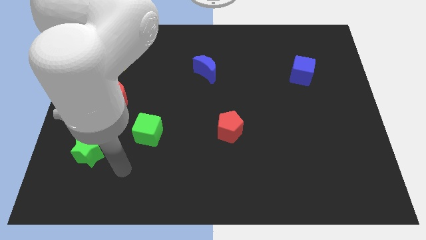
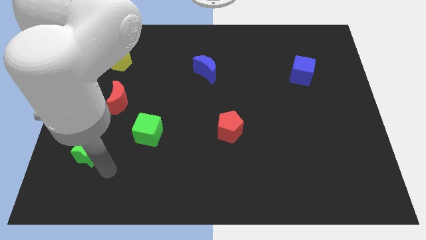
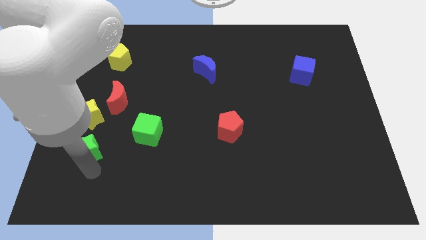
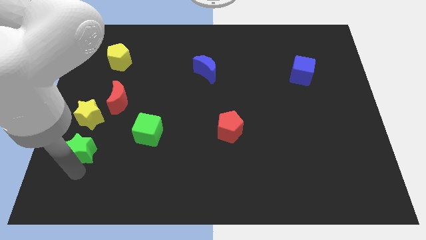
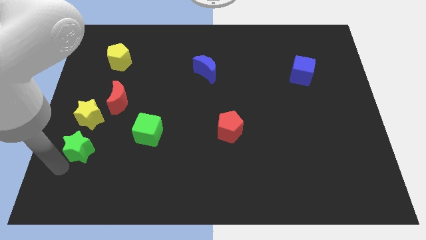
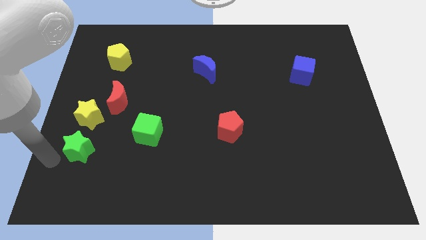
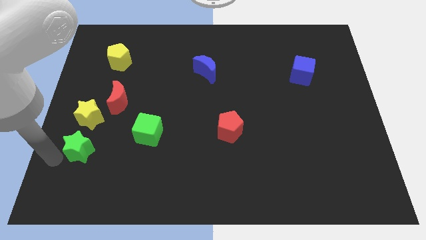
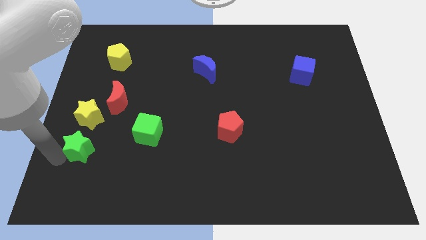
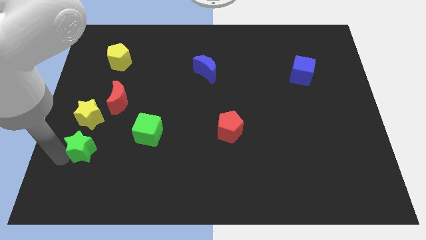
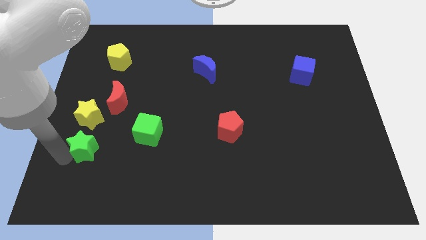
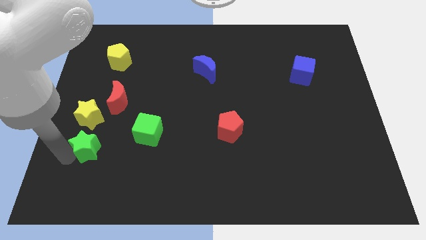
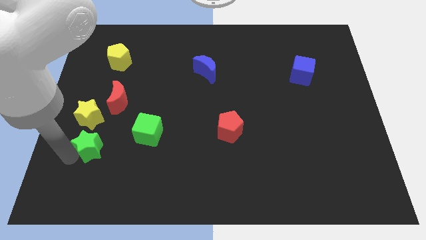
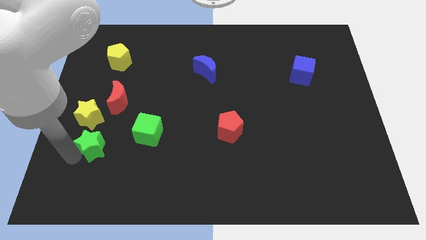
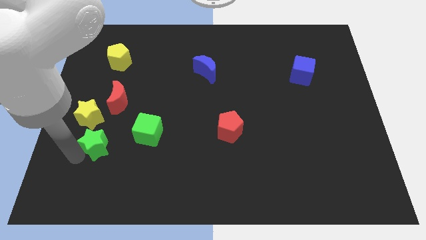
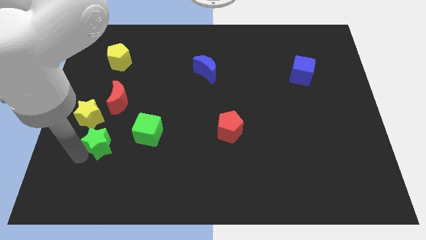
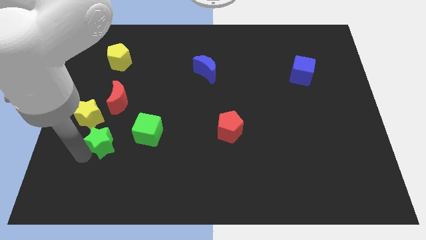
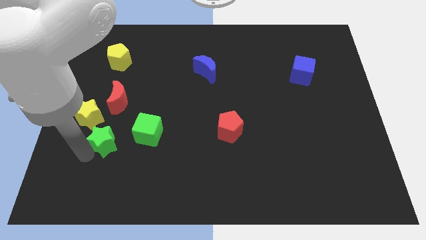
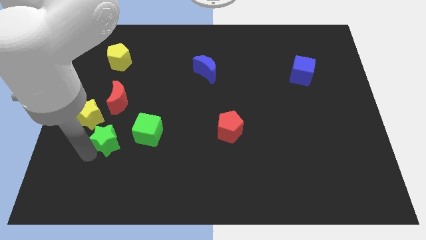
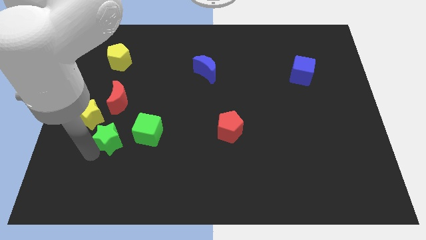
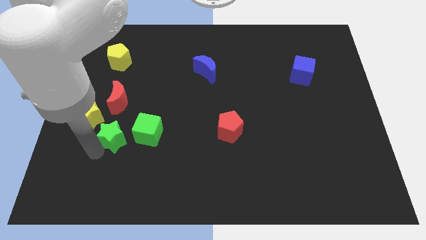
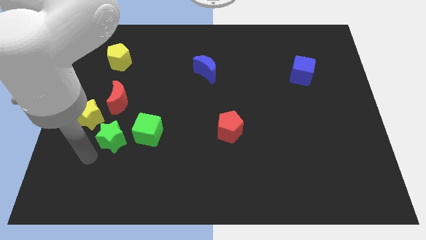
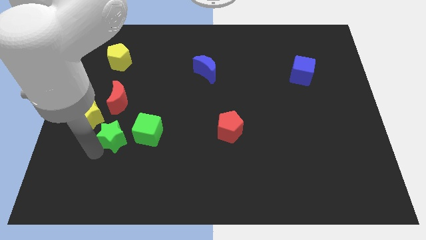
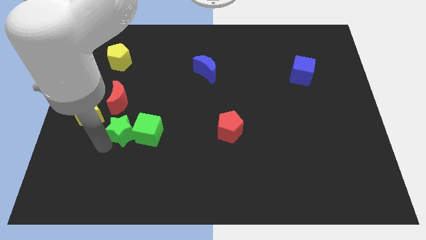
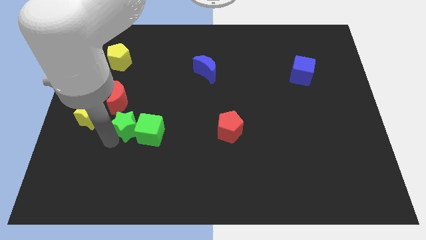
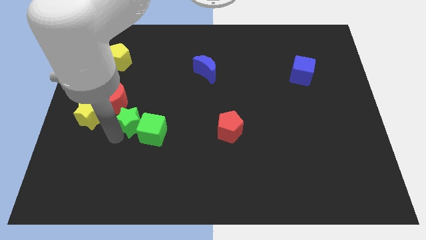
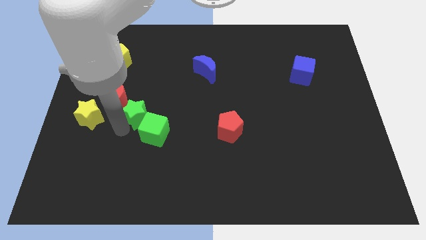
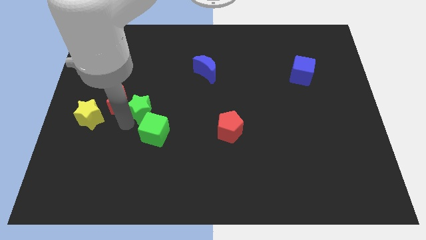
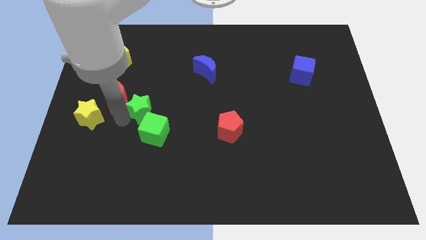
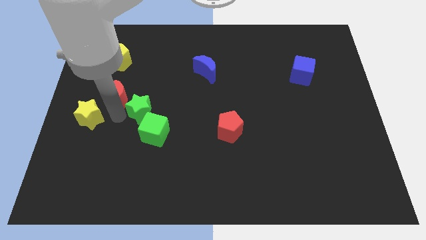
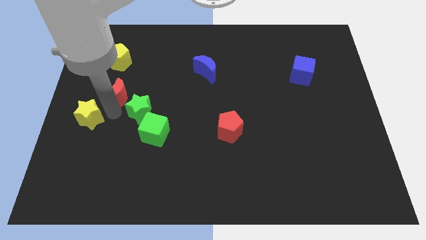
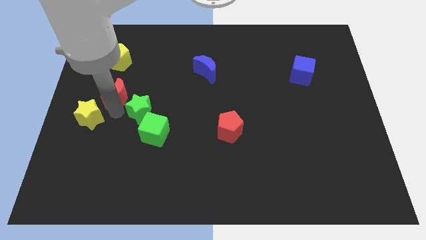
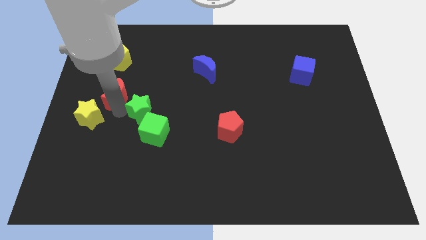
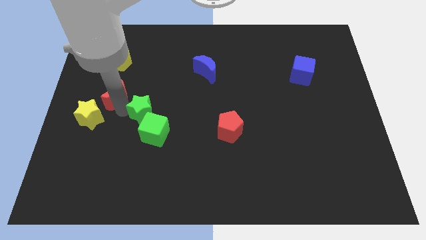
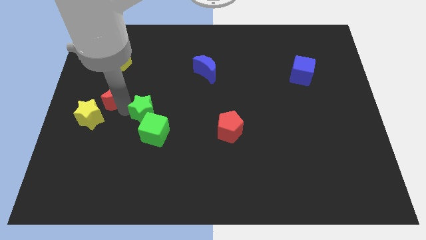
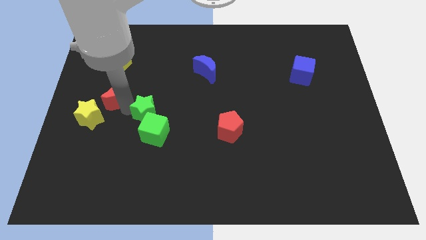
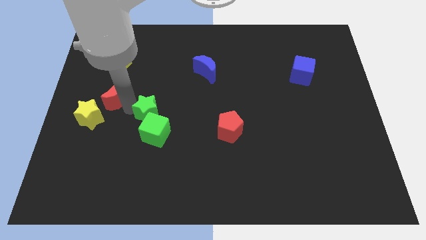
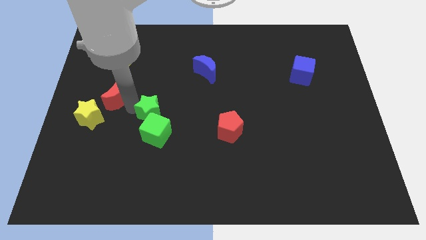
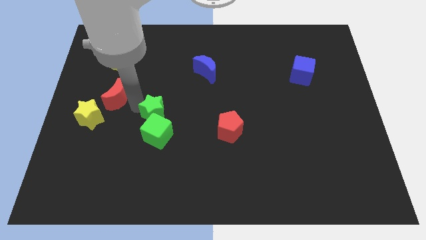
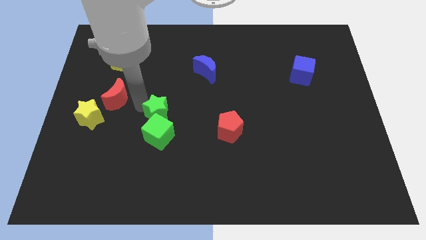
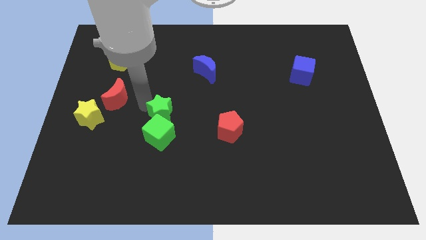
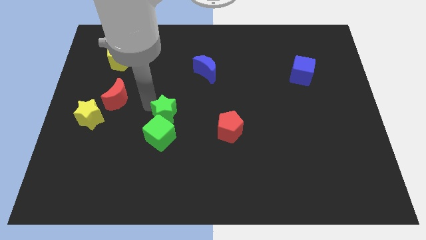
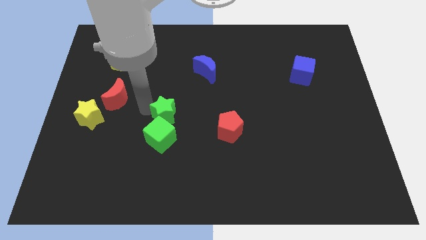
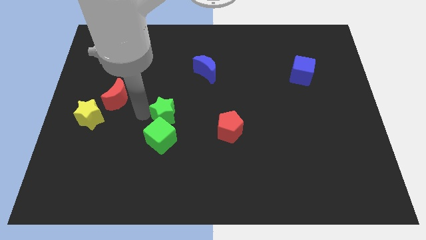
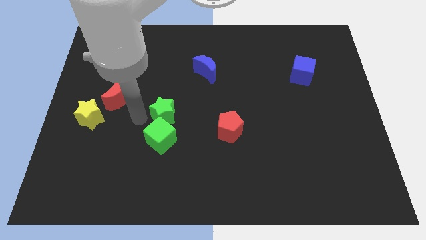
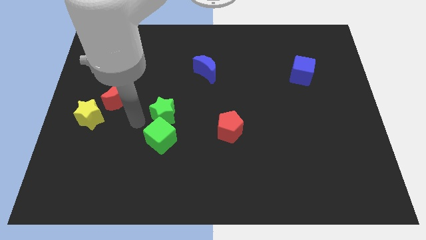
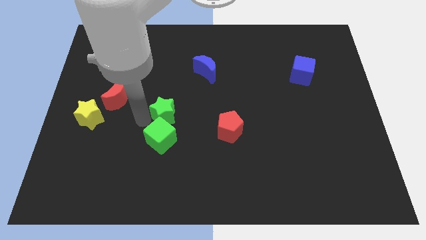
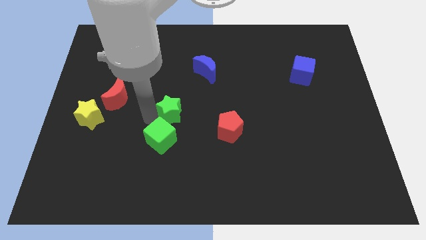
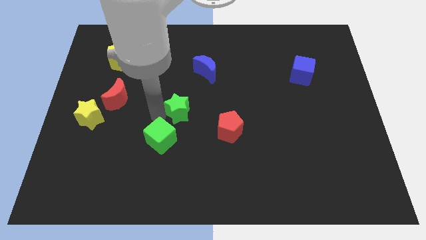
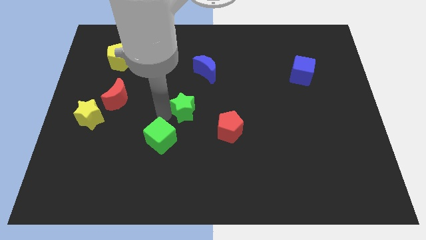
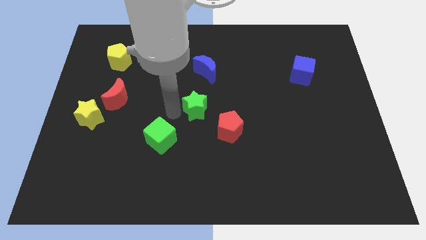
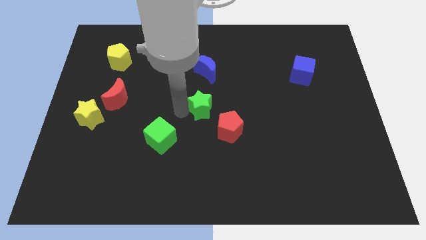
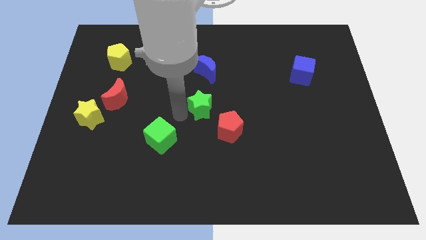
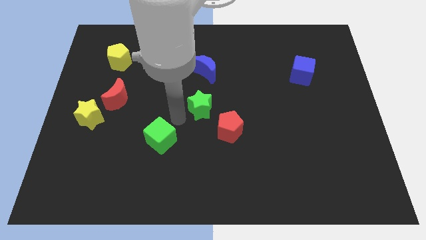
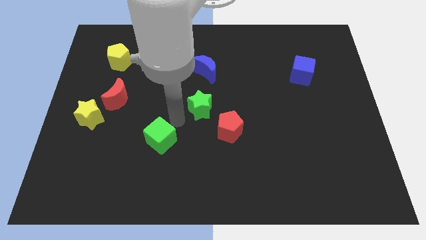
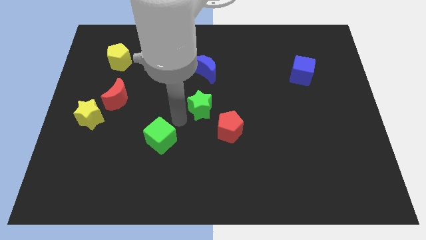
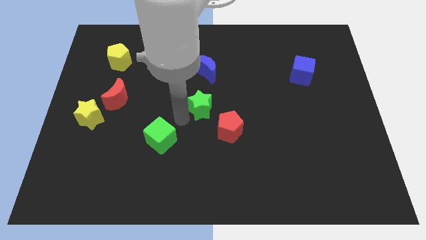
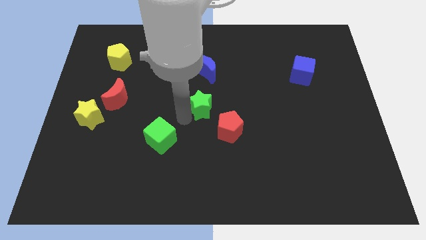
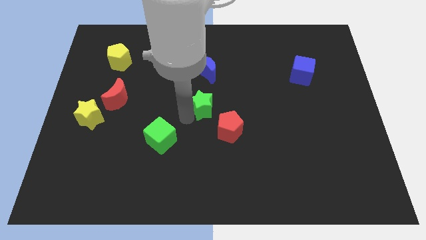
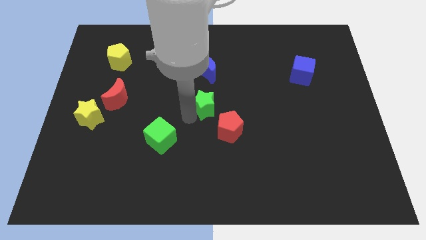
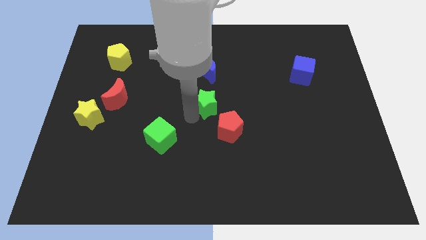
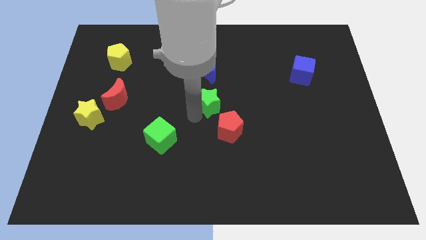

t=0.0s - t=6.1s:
put the green star above the red pentagon
